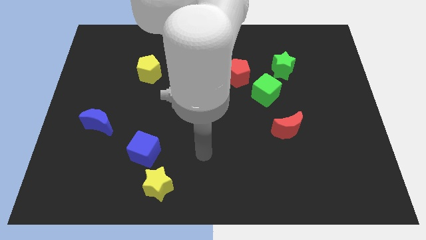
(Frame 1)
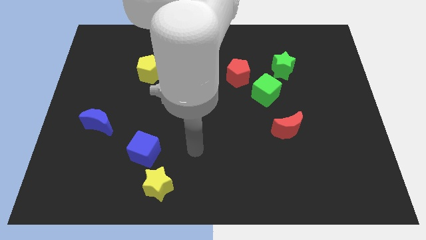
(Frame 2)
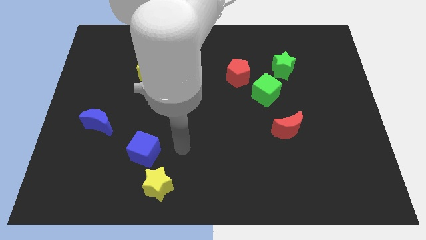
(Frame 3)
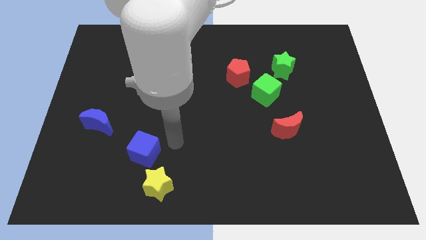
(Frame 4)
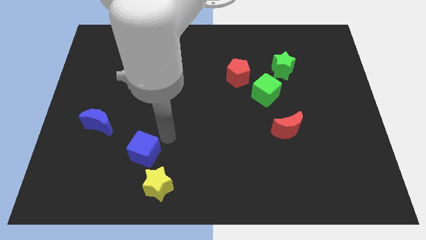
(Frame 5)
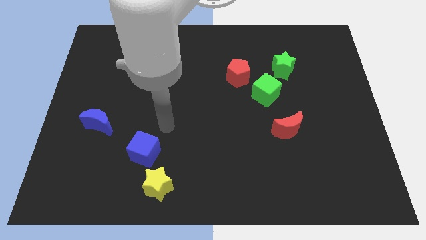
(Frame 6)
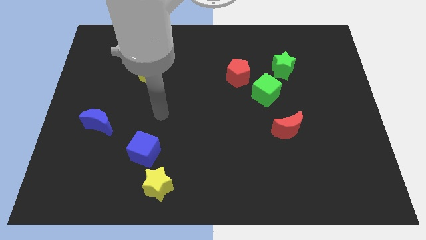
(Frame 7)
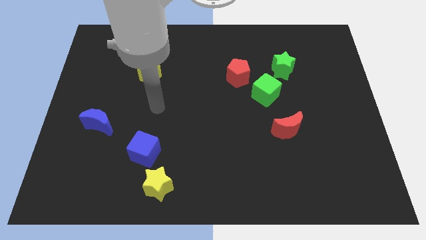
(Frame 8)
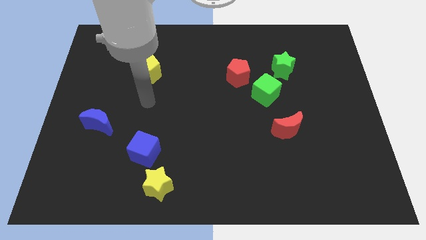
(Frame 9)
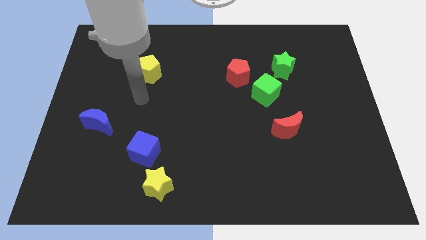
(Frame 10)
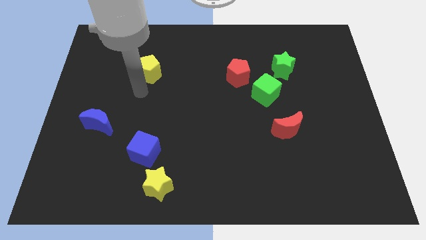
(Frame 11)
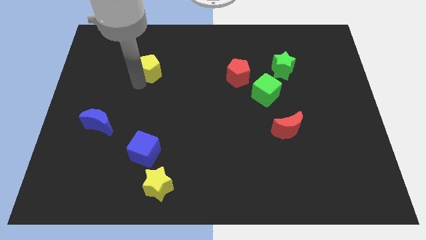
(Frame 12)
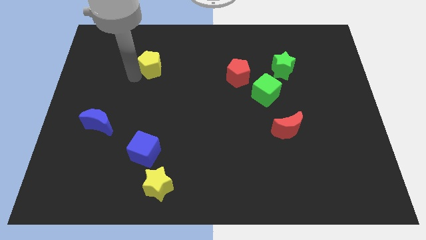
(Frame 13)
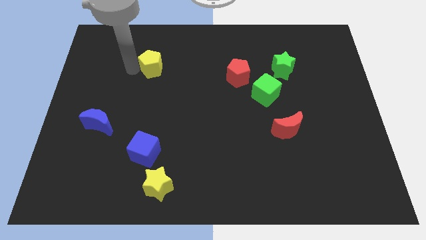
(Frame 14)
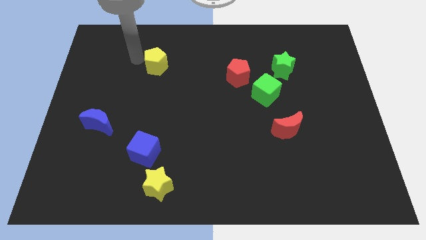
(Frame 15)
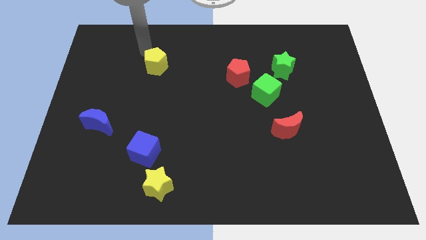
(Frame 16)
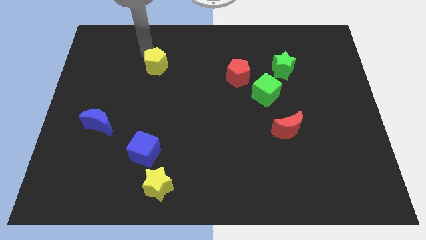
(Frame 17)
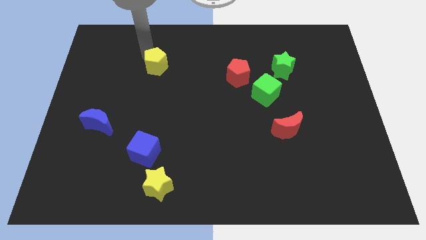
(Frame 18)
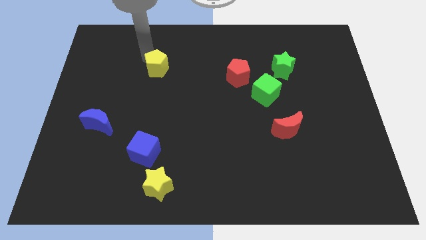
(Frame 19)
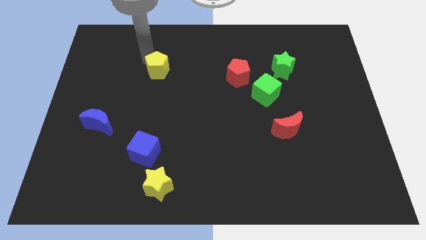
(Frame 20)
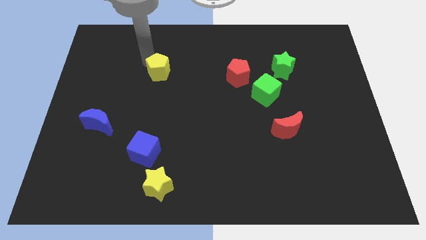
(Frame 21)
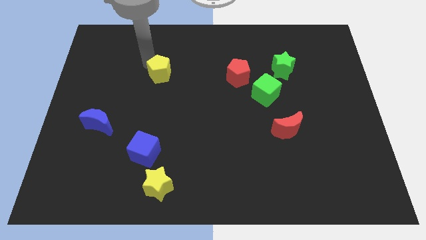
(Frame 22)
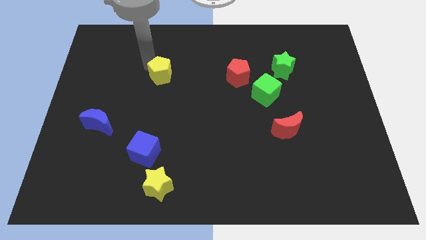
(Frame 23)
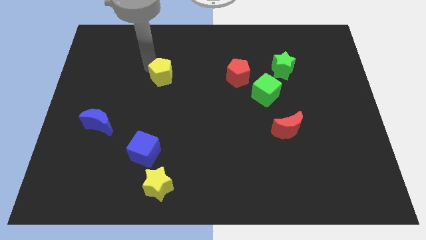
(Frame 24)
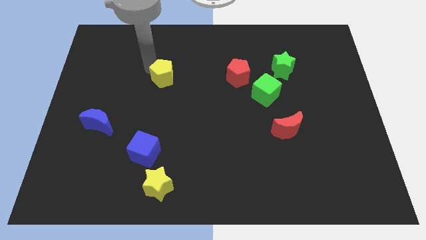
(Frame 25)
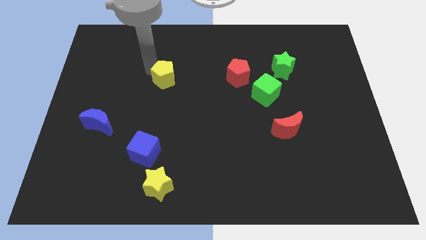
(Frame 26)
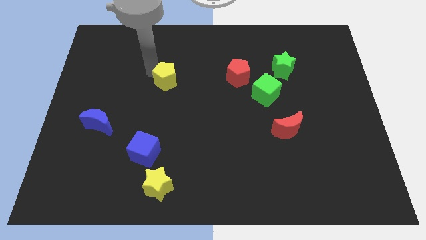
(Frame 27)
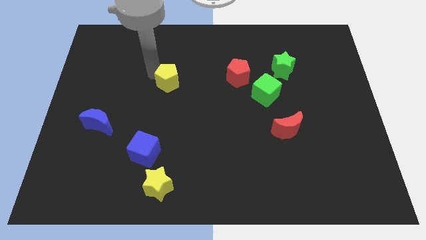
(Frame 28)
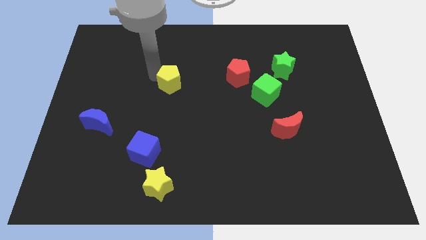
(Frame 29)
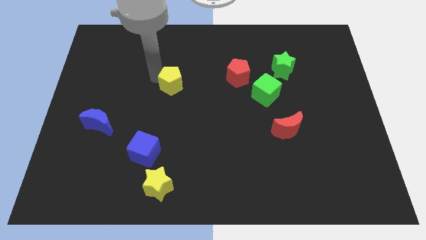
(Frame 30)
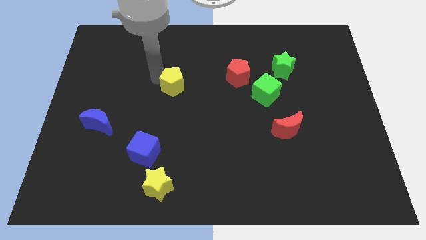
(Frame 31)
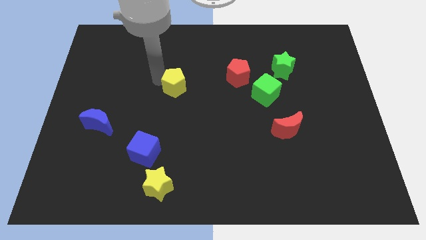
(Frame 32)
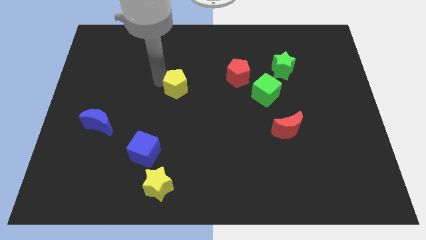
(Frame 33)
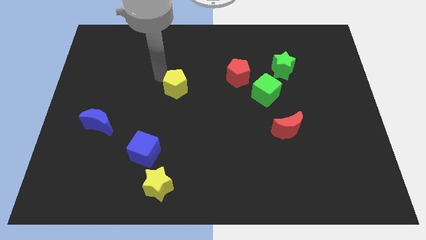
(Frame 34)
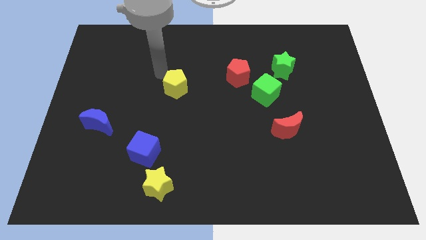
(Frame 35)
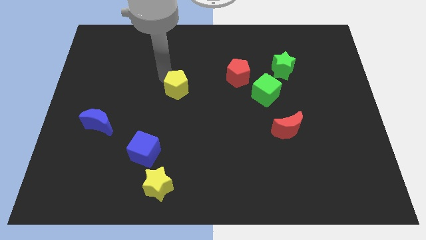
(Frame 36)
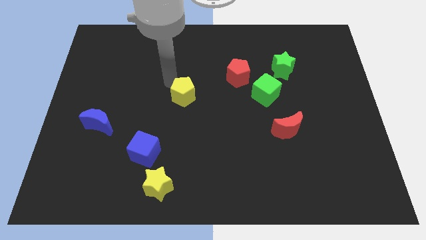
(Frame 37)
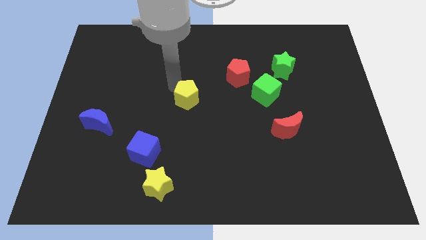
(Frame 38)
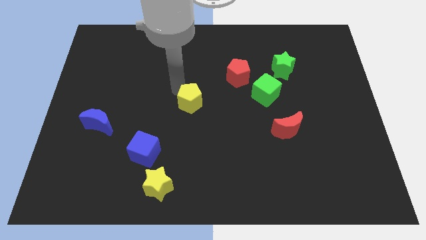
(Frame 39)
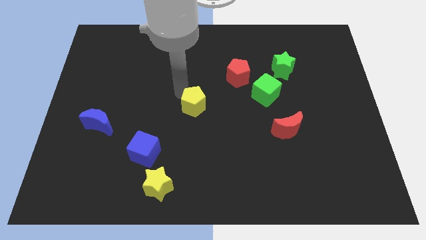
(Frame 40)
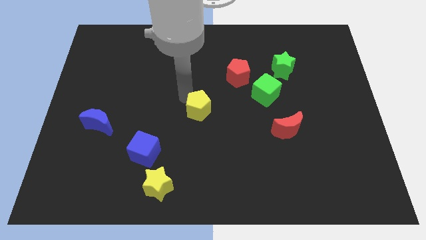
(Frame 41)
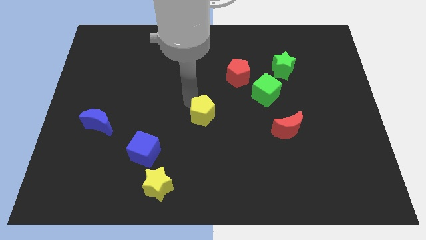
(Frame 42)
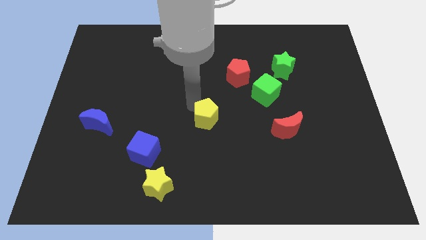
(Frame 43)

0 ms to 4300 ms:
push the yellow pentagon down and right

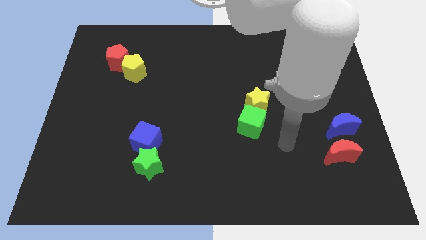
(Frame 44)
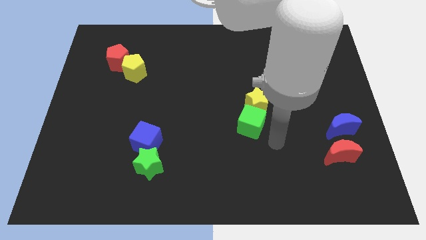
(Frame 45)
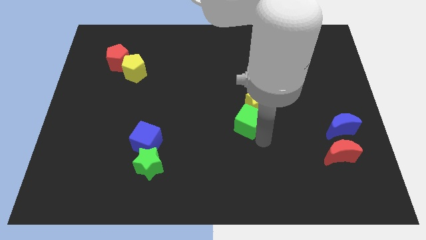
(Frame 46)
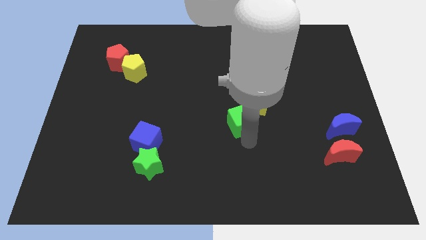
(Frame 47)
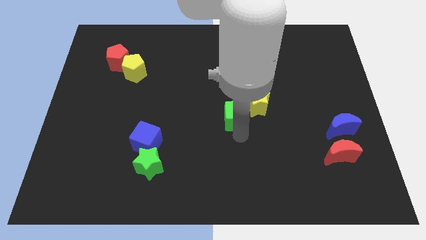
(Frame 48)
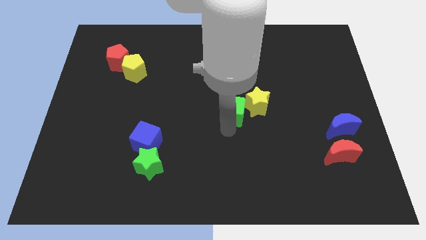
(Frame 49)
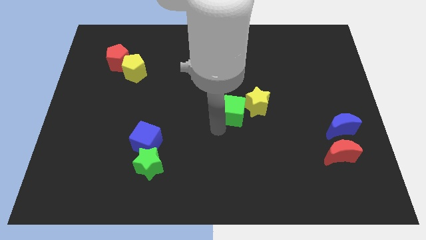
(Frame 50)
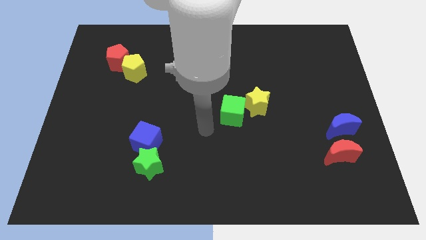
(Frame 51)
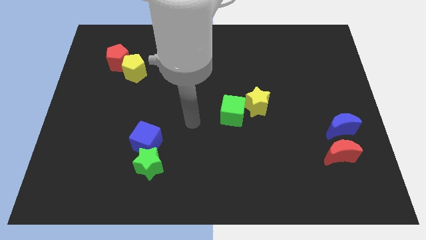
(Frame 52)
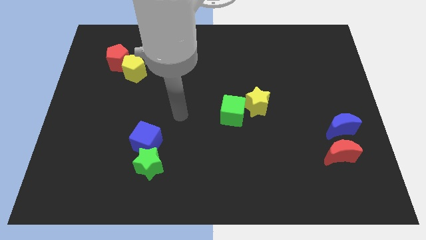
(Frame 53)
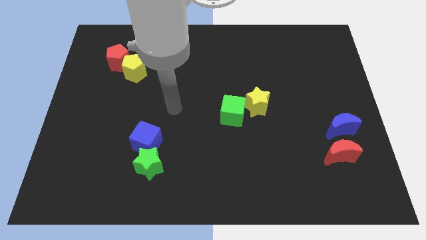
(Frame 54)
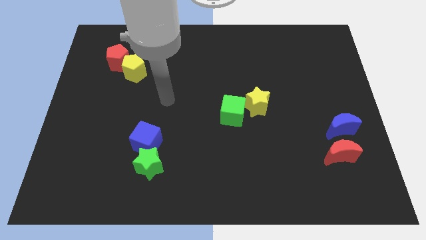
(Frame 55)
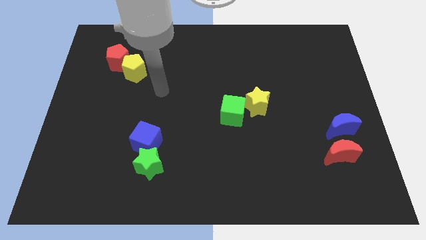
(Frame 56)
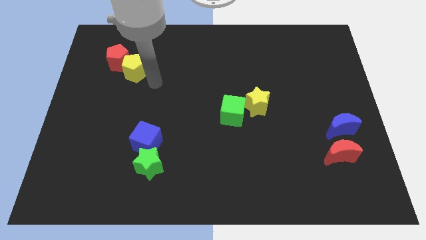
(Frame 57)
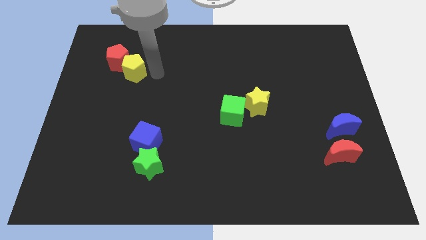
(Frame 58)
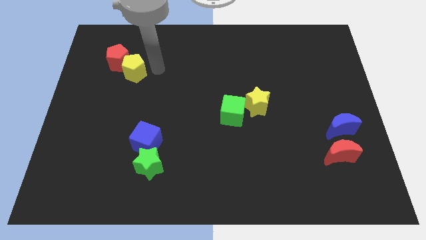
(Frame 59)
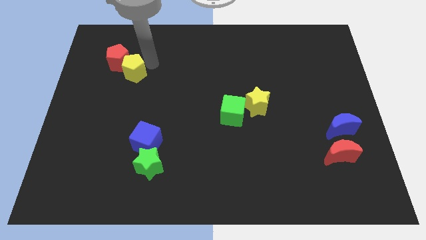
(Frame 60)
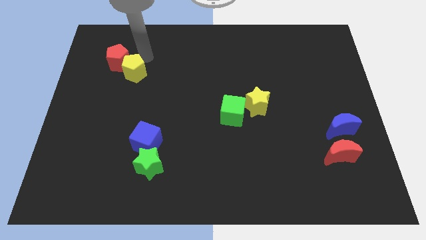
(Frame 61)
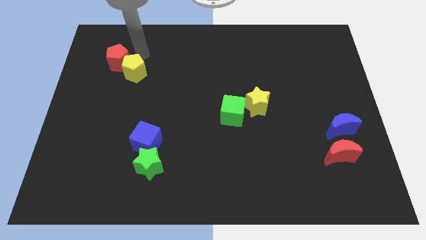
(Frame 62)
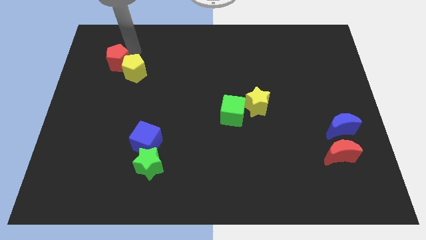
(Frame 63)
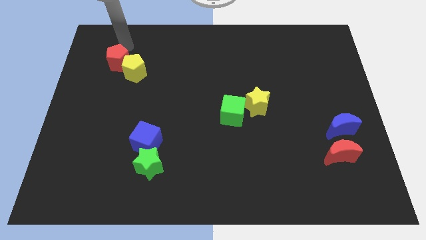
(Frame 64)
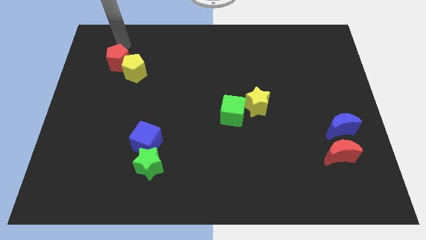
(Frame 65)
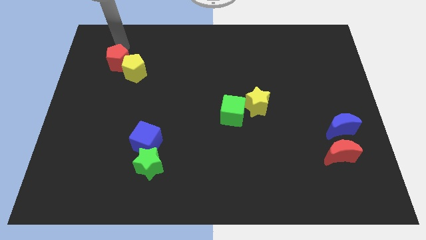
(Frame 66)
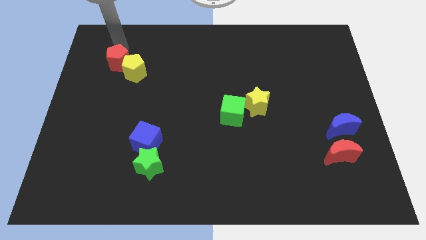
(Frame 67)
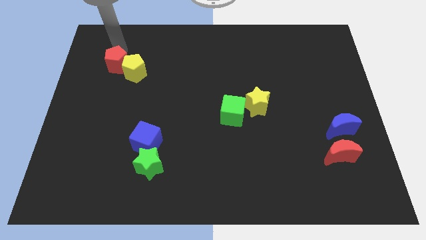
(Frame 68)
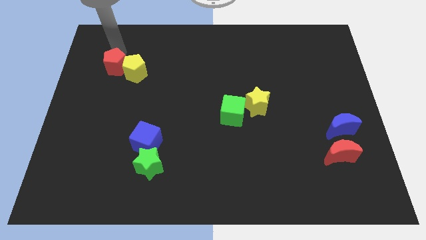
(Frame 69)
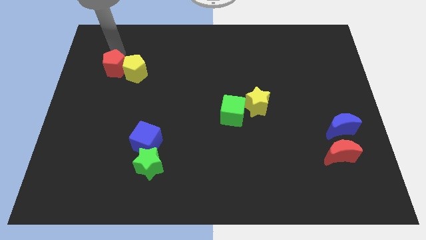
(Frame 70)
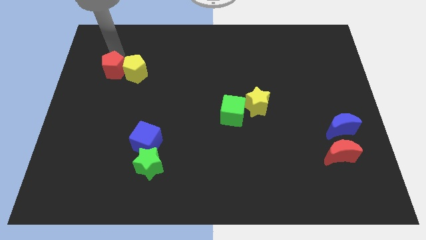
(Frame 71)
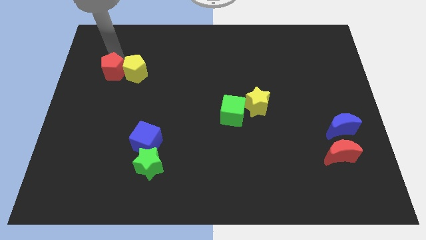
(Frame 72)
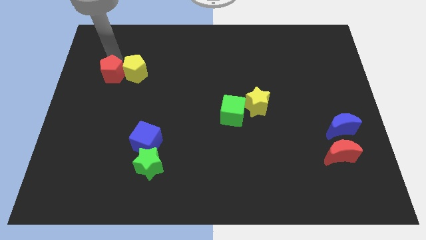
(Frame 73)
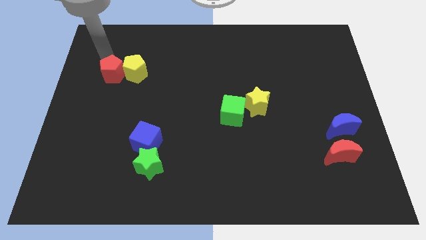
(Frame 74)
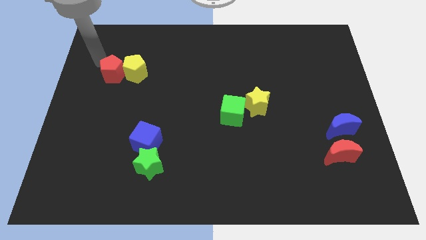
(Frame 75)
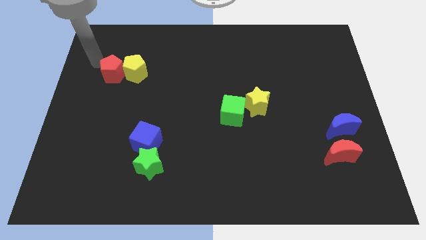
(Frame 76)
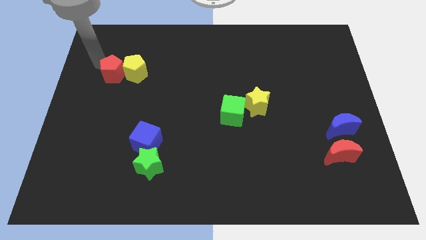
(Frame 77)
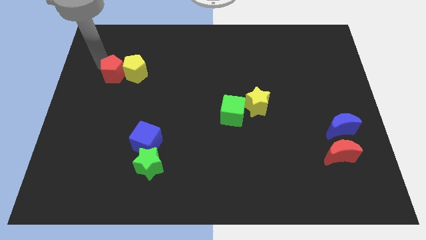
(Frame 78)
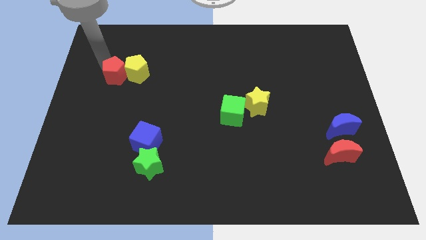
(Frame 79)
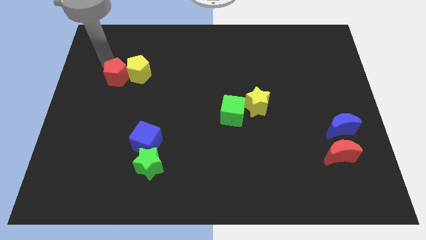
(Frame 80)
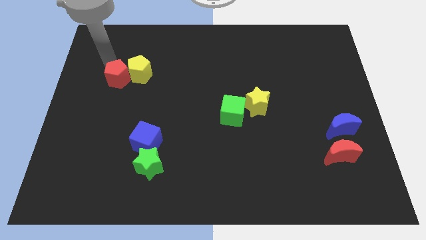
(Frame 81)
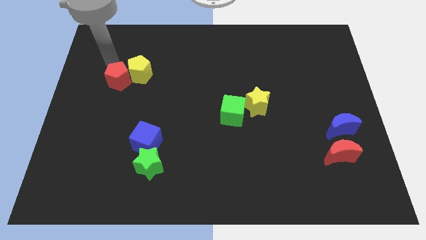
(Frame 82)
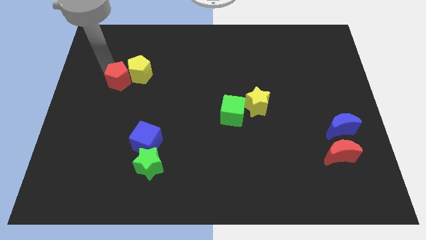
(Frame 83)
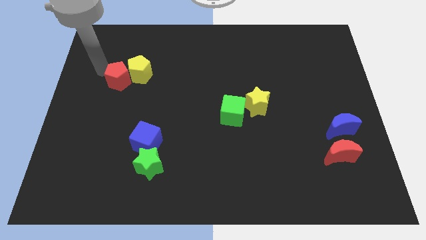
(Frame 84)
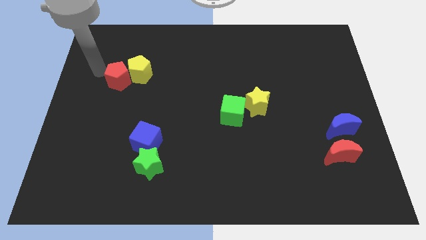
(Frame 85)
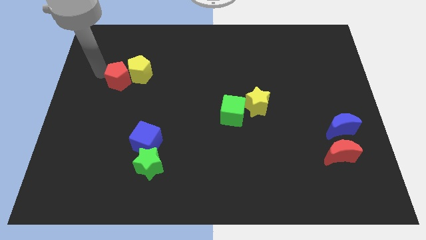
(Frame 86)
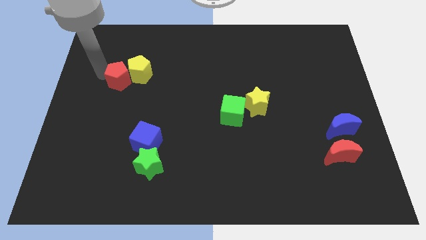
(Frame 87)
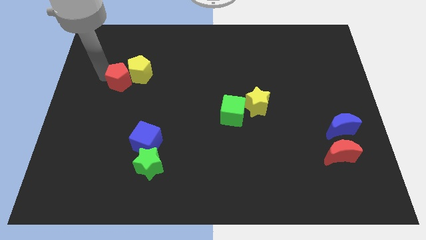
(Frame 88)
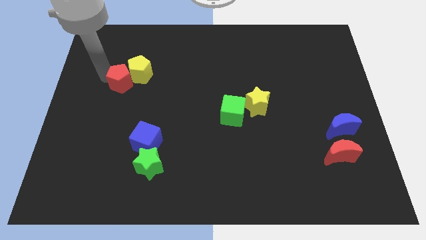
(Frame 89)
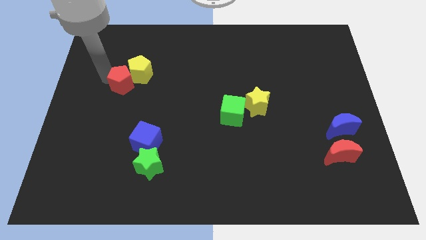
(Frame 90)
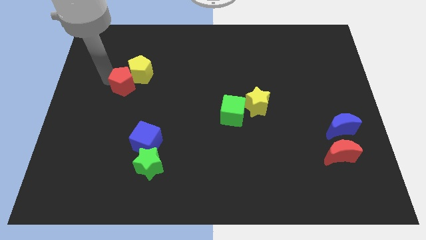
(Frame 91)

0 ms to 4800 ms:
slightly move the red pentagon down and right
